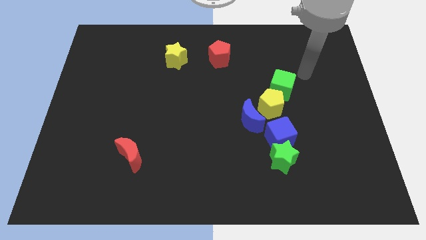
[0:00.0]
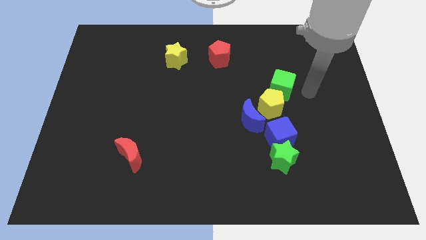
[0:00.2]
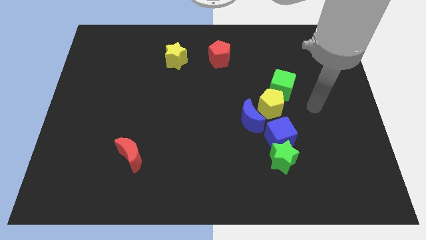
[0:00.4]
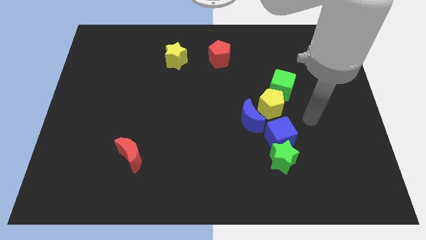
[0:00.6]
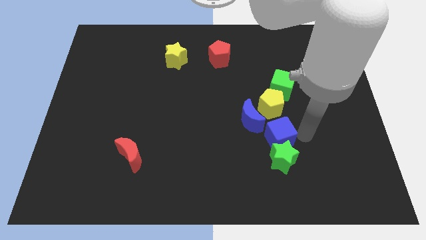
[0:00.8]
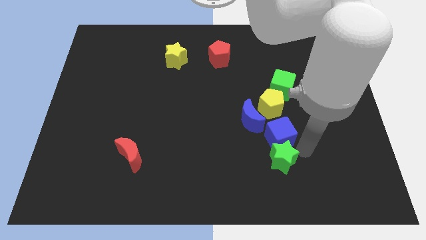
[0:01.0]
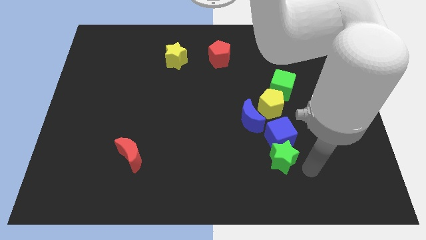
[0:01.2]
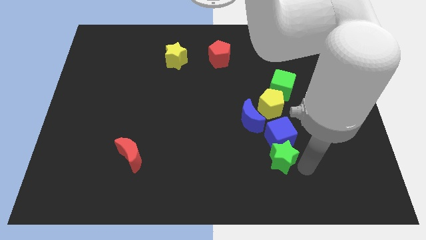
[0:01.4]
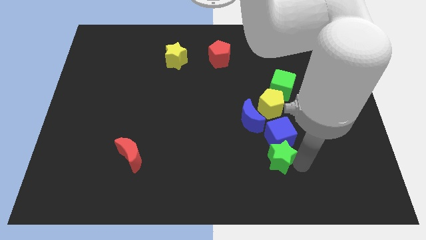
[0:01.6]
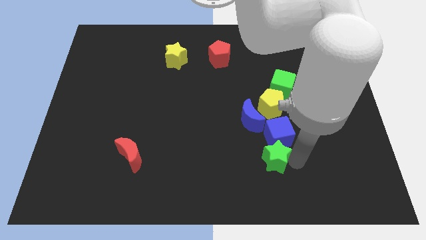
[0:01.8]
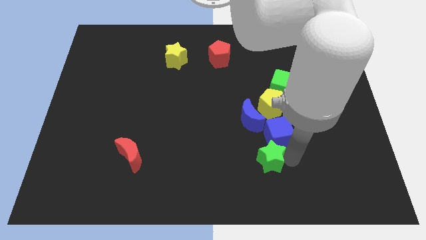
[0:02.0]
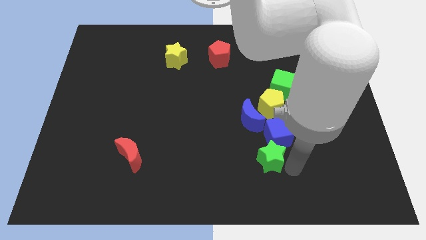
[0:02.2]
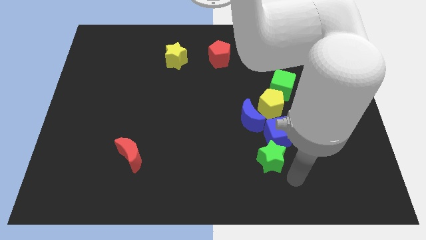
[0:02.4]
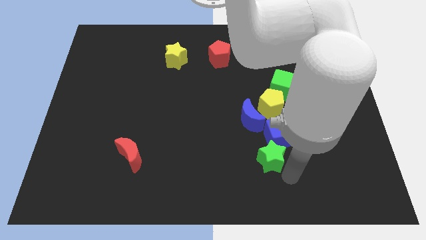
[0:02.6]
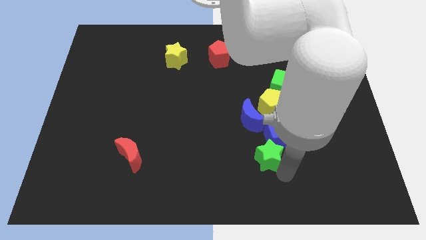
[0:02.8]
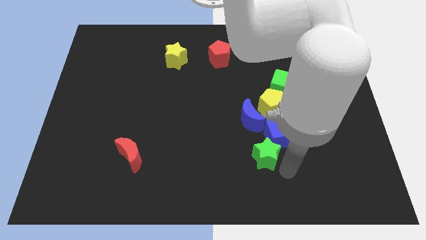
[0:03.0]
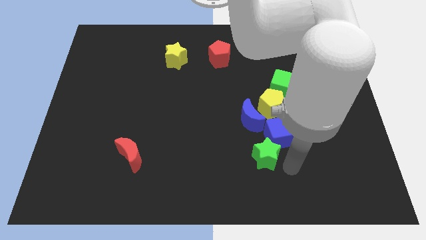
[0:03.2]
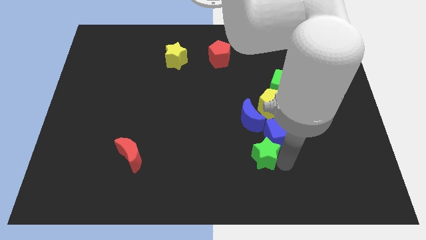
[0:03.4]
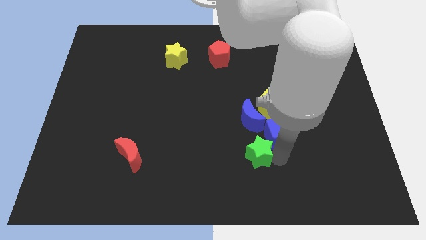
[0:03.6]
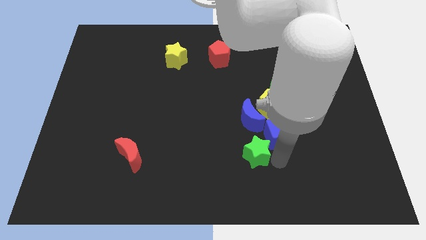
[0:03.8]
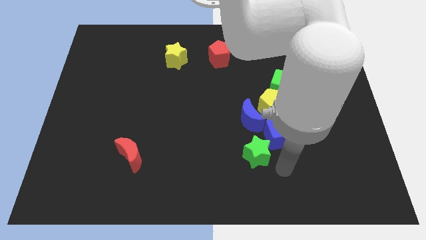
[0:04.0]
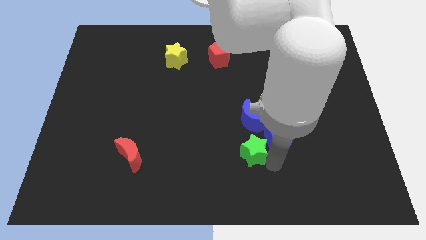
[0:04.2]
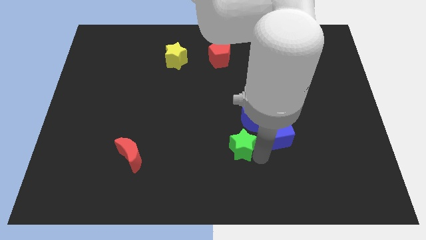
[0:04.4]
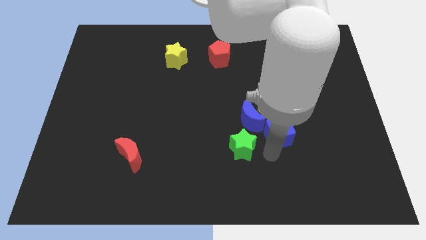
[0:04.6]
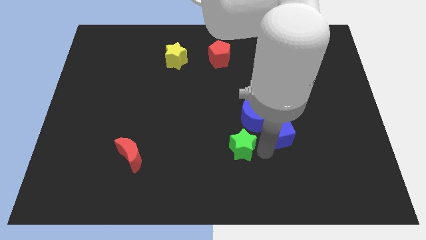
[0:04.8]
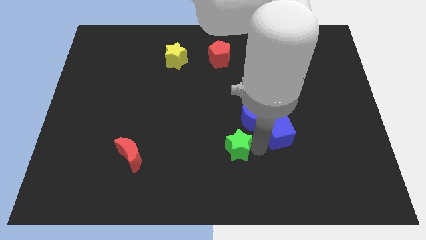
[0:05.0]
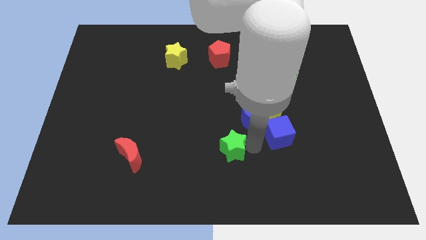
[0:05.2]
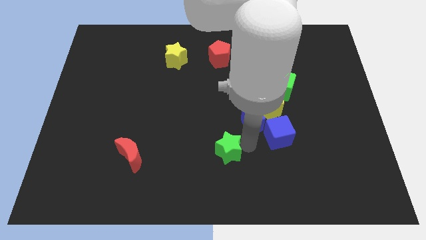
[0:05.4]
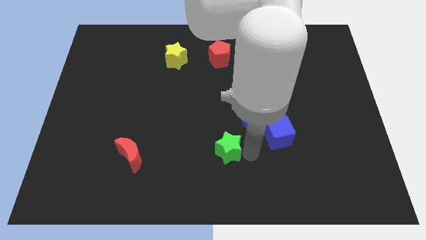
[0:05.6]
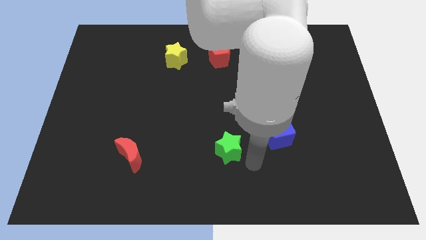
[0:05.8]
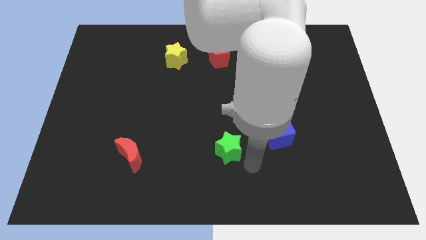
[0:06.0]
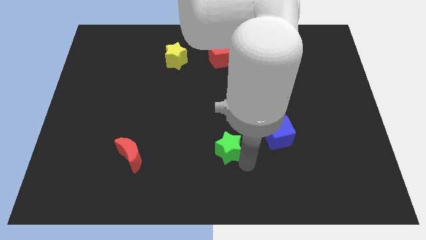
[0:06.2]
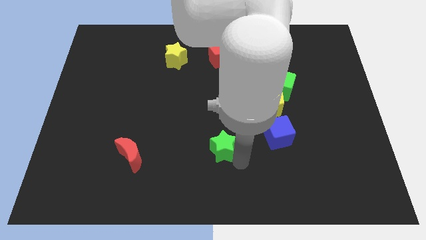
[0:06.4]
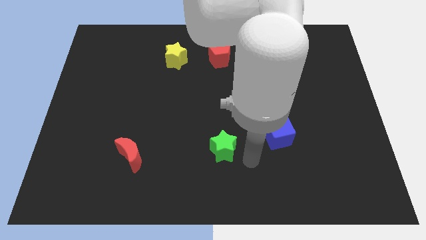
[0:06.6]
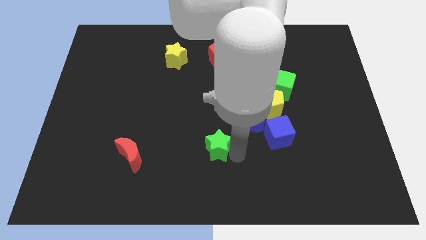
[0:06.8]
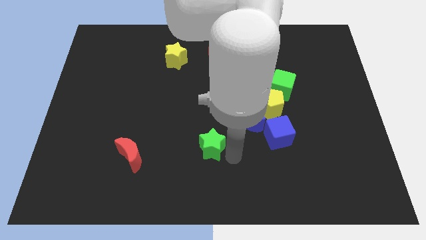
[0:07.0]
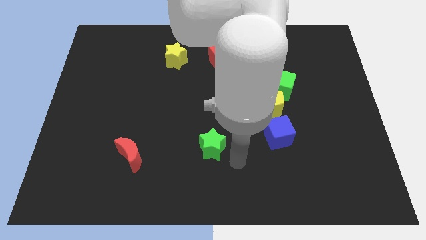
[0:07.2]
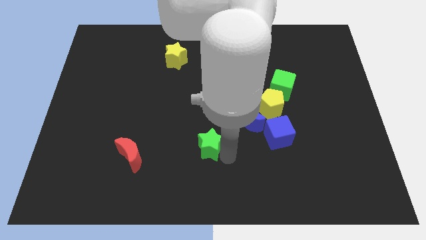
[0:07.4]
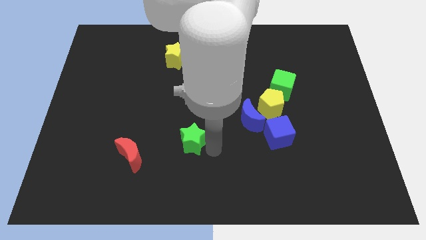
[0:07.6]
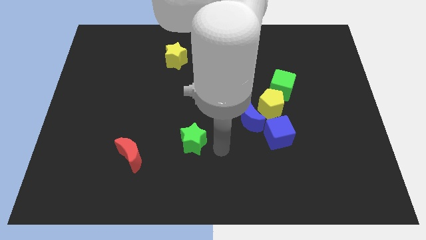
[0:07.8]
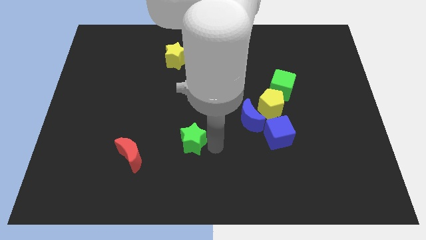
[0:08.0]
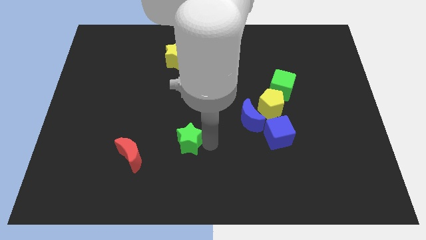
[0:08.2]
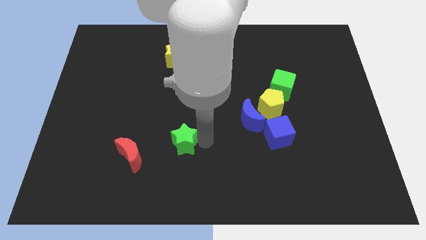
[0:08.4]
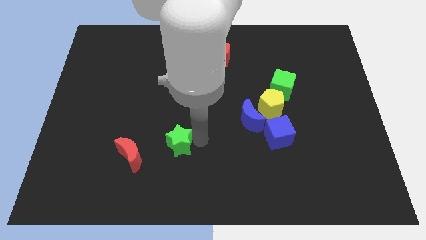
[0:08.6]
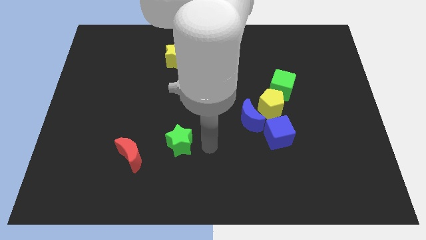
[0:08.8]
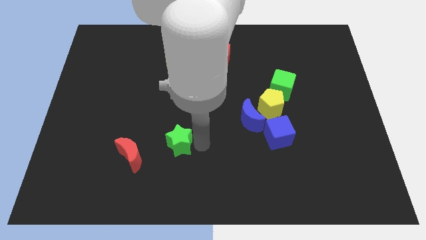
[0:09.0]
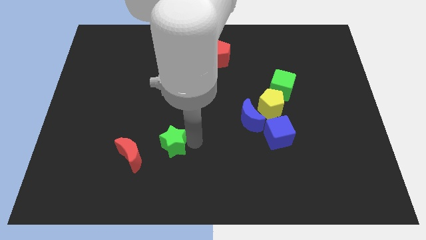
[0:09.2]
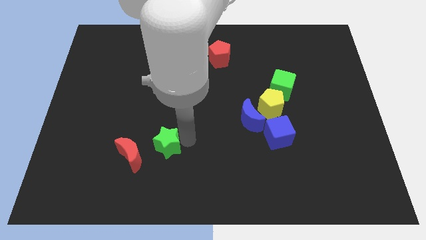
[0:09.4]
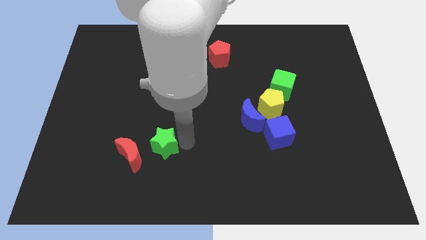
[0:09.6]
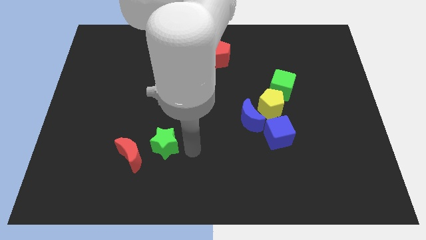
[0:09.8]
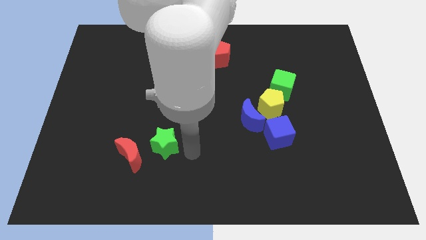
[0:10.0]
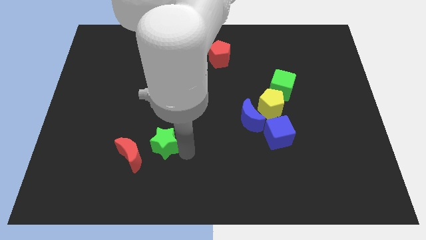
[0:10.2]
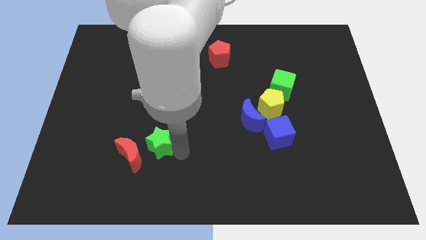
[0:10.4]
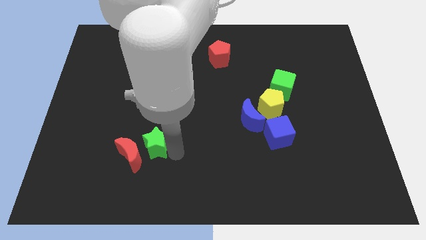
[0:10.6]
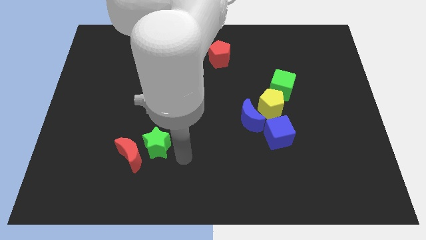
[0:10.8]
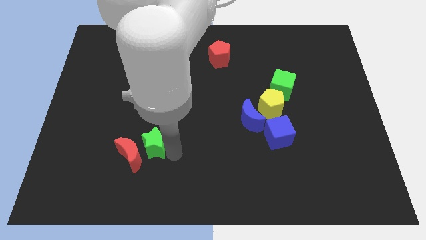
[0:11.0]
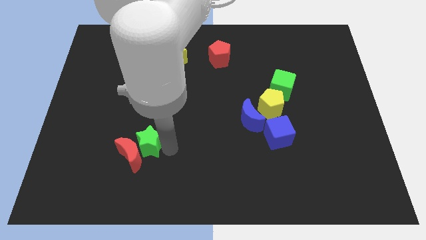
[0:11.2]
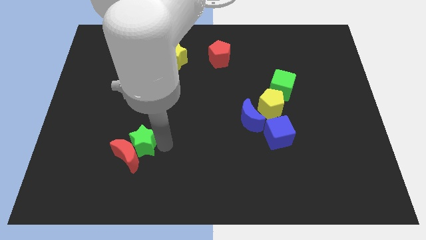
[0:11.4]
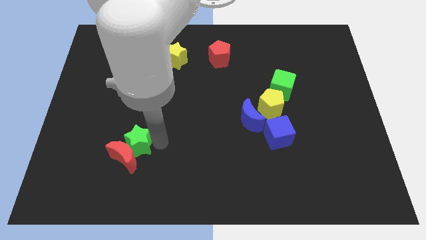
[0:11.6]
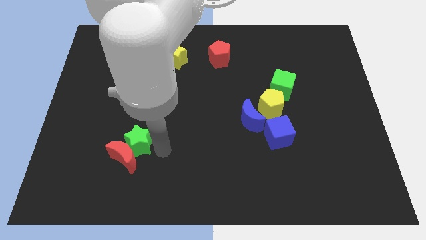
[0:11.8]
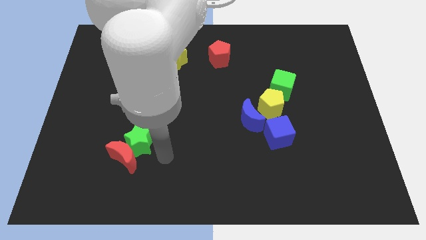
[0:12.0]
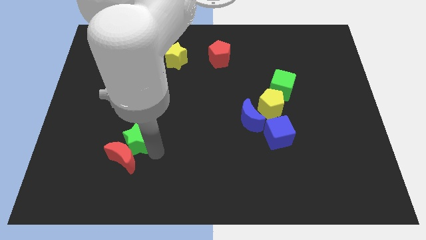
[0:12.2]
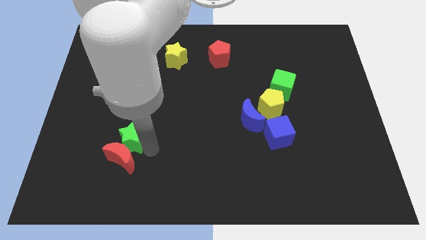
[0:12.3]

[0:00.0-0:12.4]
push the green star diagonally up and to the left of the red moon

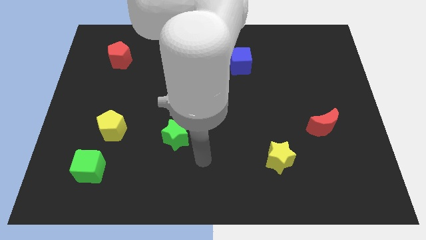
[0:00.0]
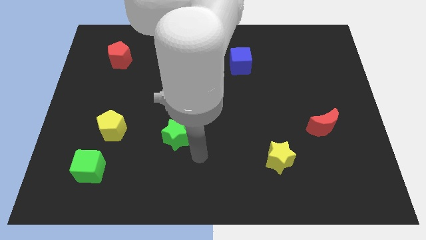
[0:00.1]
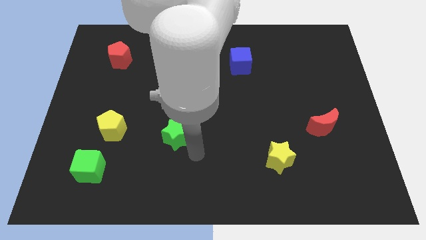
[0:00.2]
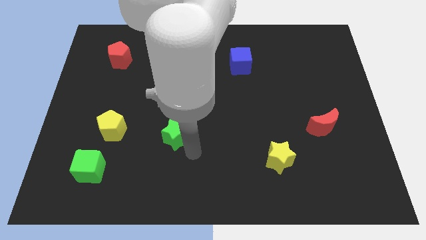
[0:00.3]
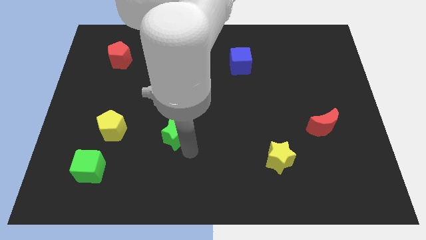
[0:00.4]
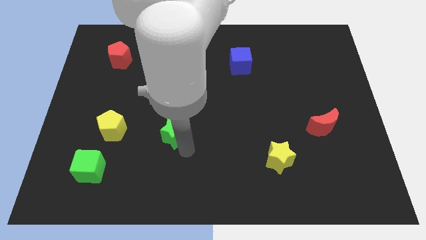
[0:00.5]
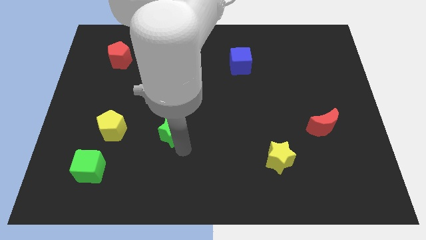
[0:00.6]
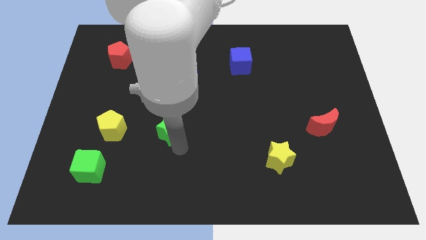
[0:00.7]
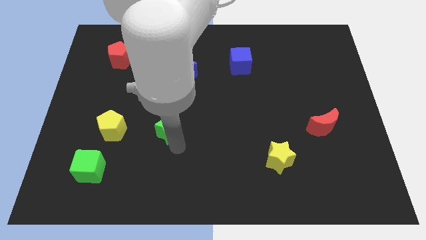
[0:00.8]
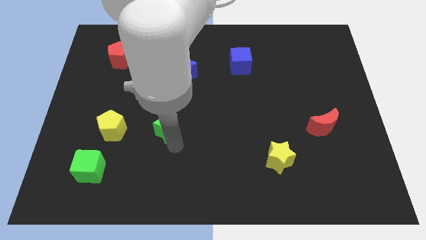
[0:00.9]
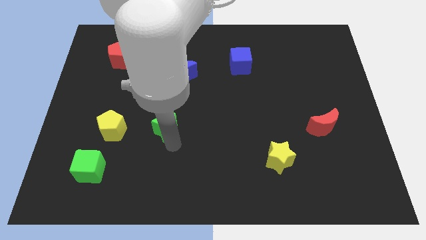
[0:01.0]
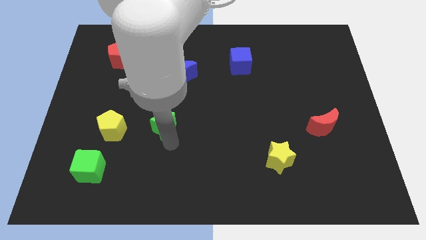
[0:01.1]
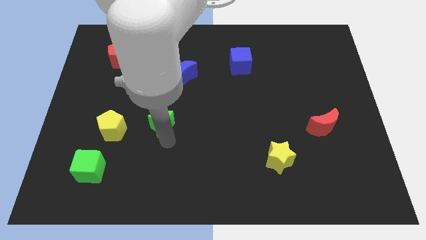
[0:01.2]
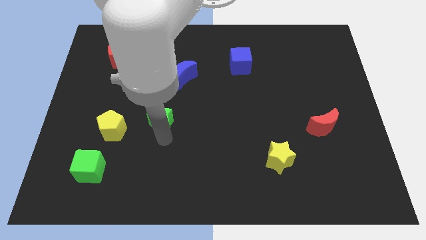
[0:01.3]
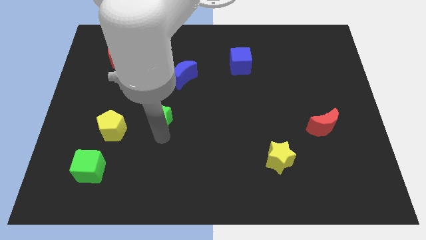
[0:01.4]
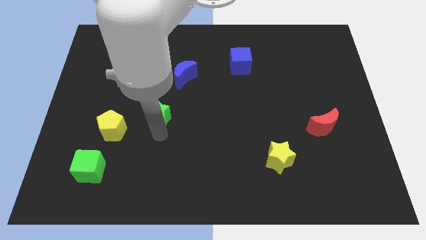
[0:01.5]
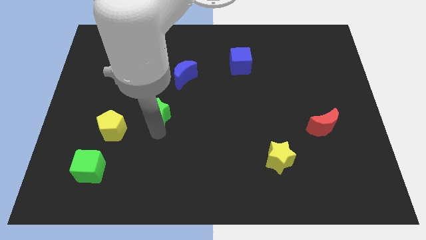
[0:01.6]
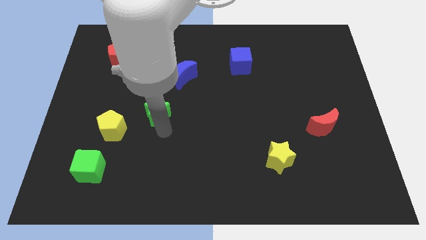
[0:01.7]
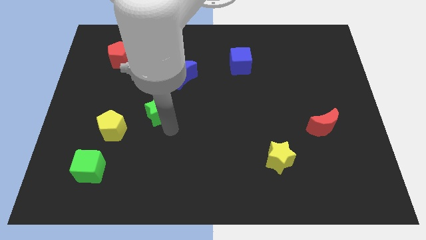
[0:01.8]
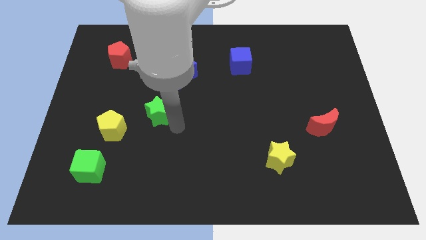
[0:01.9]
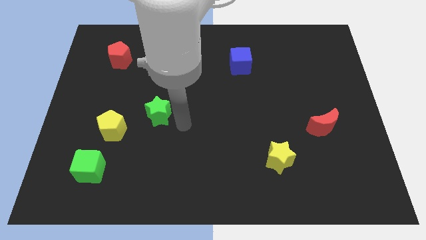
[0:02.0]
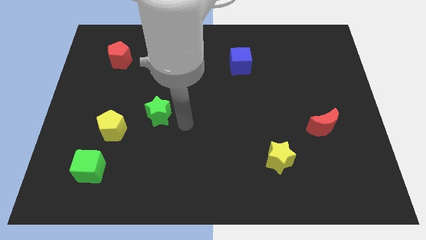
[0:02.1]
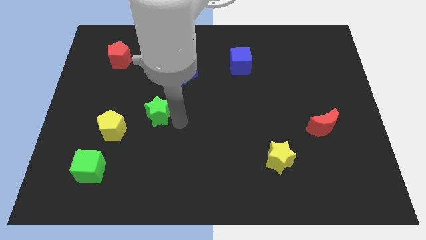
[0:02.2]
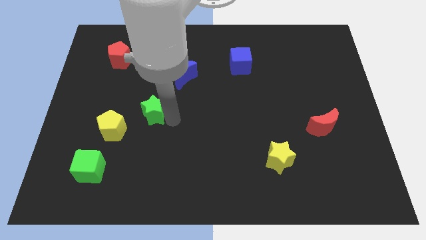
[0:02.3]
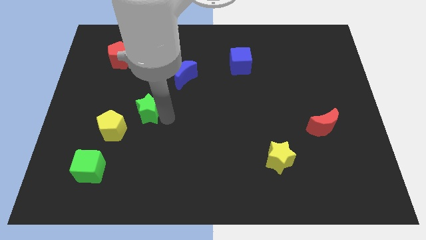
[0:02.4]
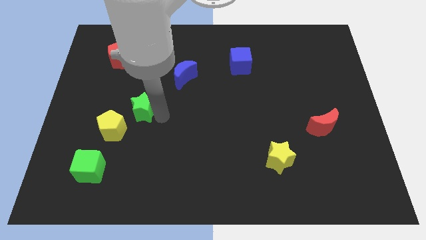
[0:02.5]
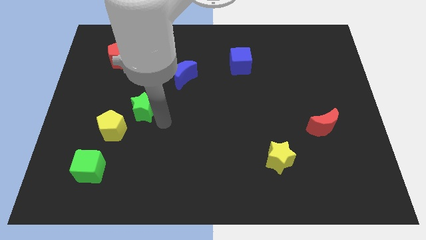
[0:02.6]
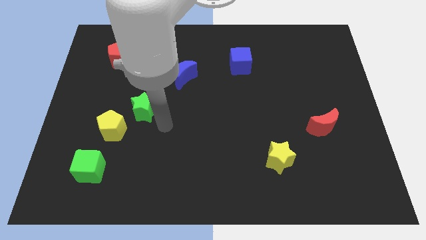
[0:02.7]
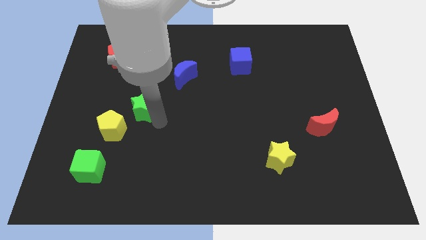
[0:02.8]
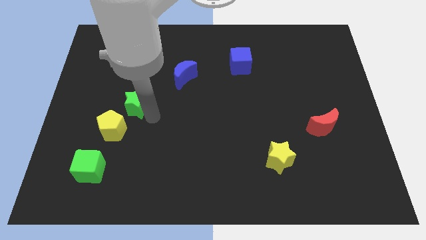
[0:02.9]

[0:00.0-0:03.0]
move the green star above the yellow pentagon
